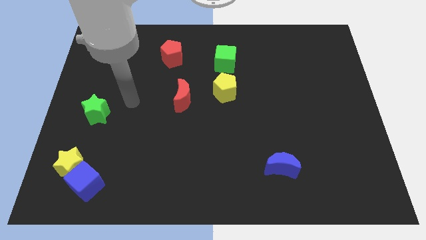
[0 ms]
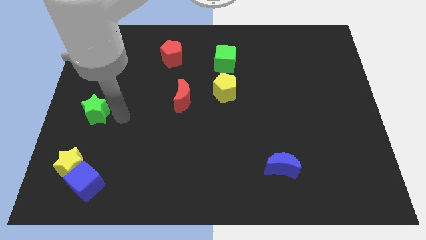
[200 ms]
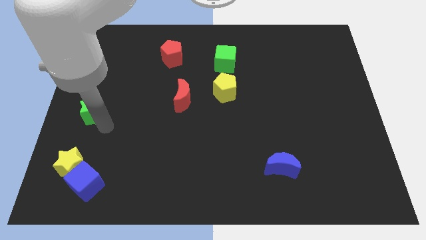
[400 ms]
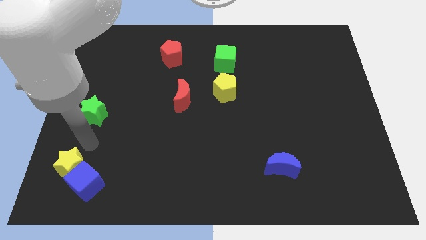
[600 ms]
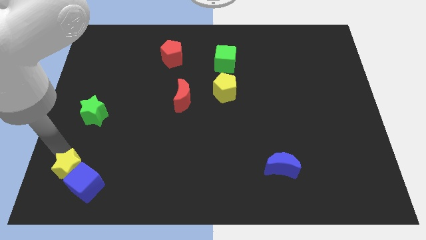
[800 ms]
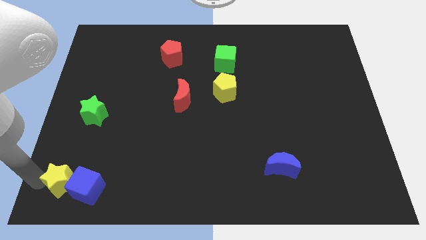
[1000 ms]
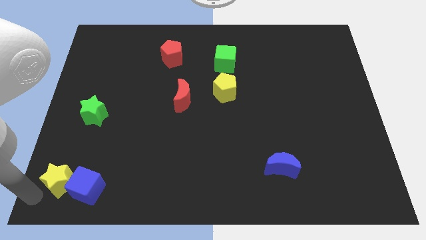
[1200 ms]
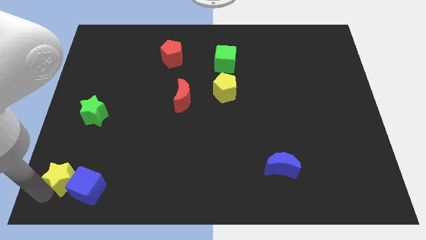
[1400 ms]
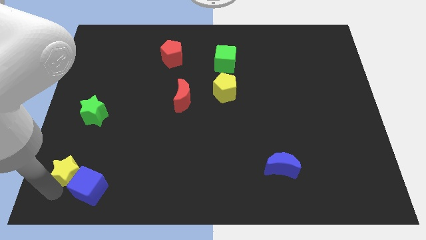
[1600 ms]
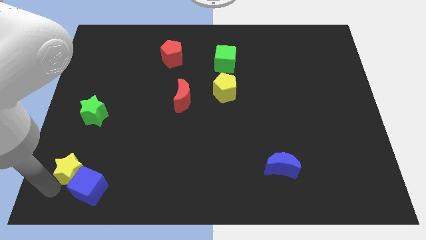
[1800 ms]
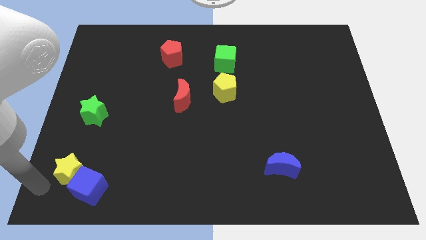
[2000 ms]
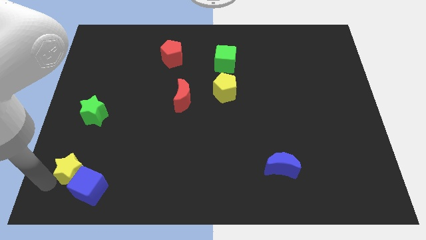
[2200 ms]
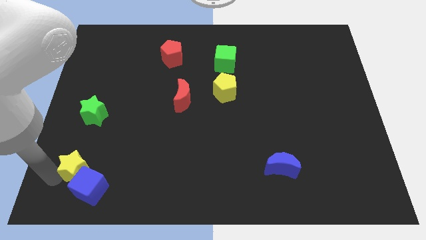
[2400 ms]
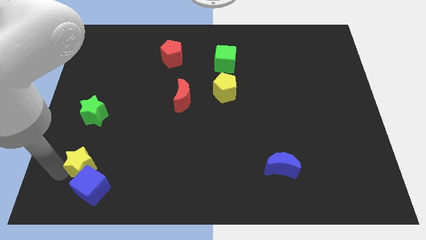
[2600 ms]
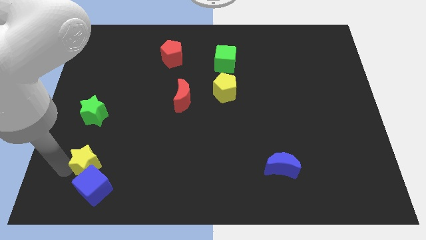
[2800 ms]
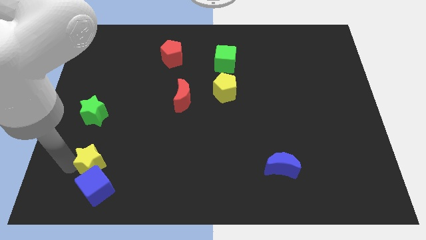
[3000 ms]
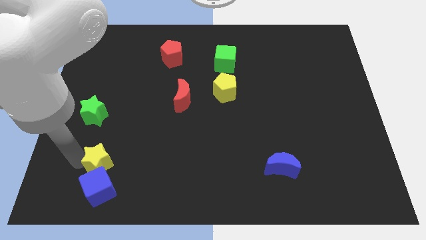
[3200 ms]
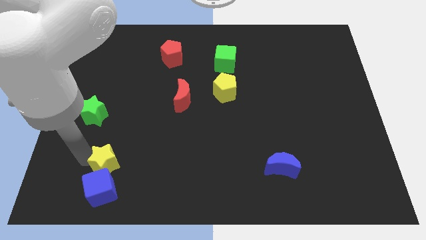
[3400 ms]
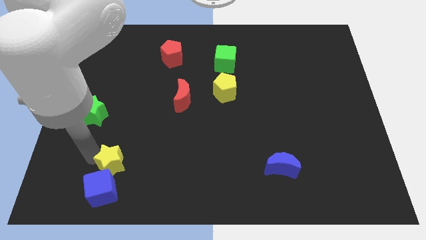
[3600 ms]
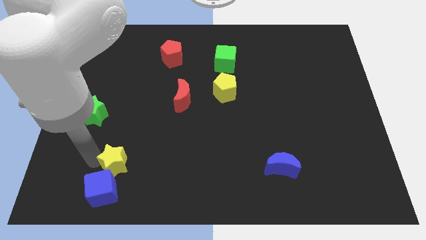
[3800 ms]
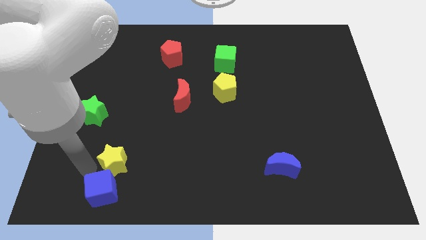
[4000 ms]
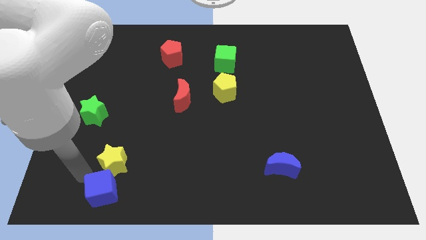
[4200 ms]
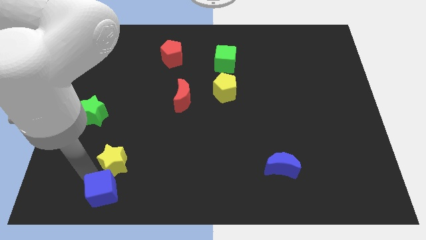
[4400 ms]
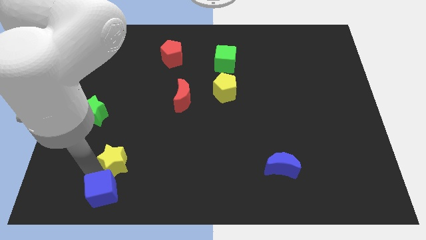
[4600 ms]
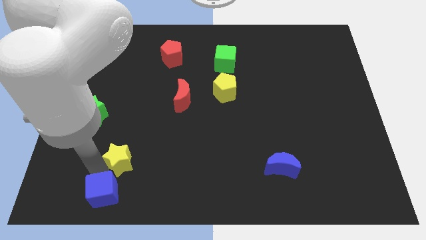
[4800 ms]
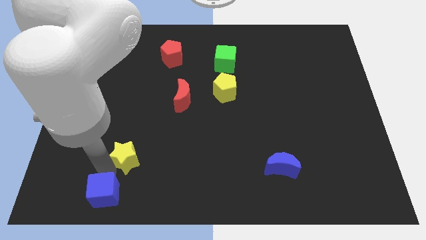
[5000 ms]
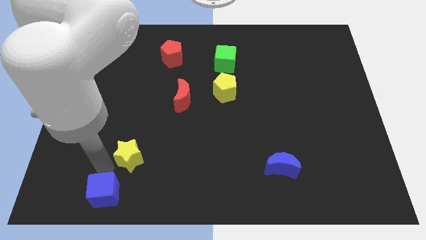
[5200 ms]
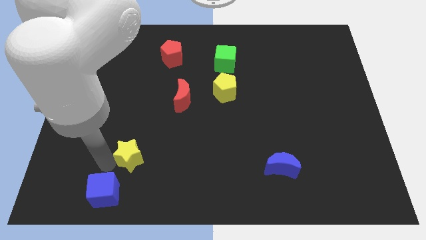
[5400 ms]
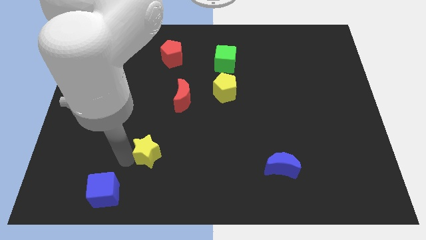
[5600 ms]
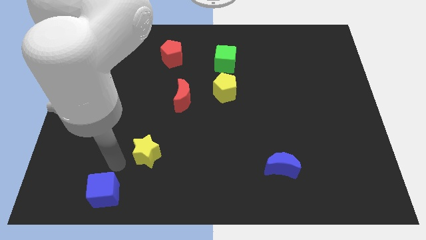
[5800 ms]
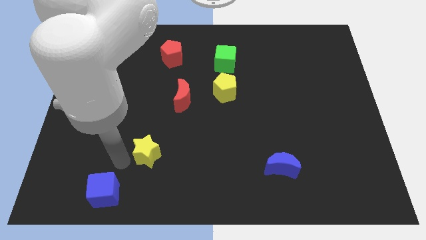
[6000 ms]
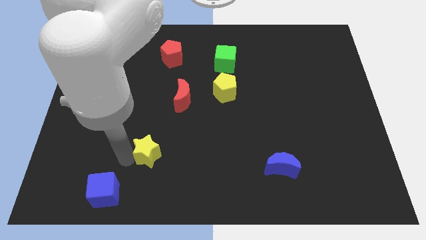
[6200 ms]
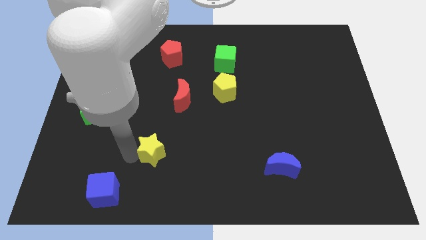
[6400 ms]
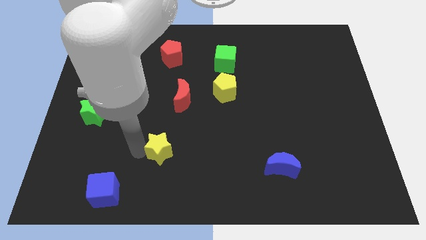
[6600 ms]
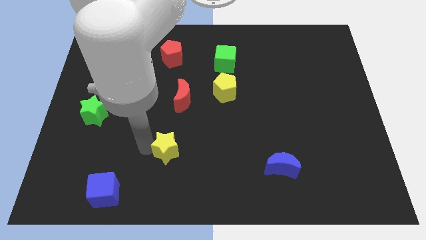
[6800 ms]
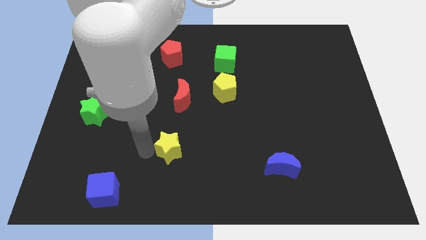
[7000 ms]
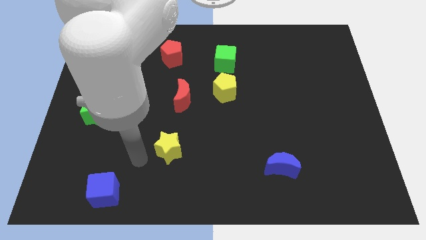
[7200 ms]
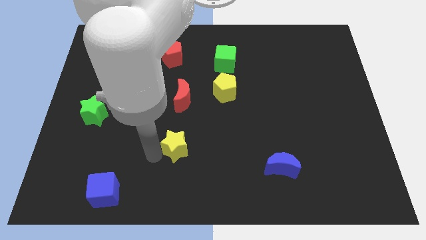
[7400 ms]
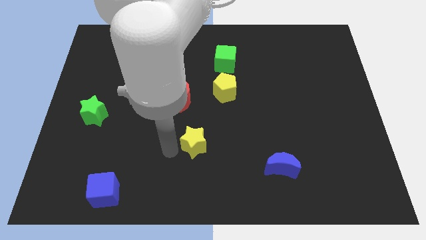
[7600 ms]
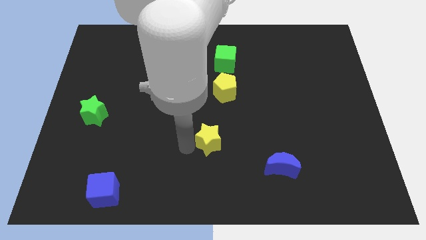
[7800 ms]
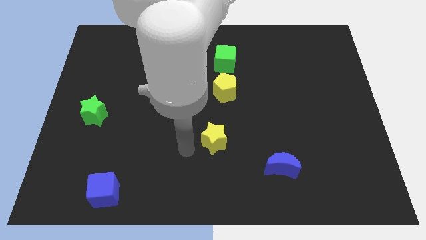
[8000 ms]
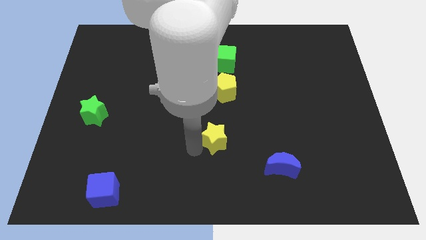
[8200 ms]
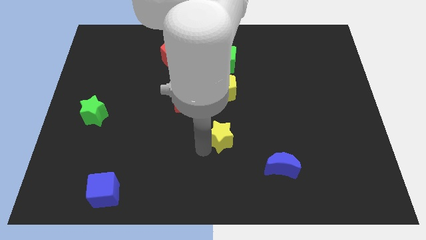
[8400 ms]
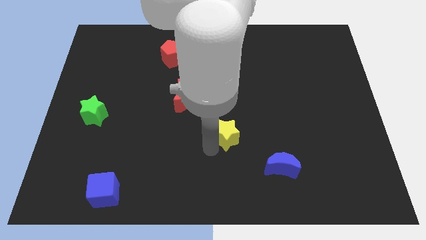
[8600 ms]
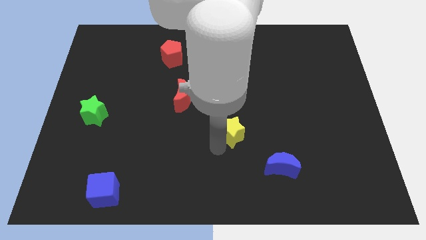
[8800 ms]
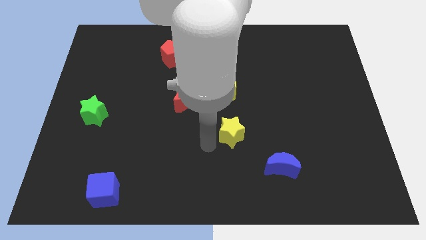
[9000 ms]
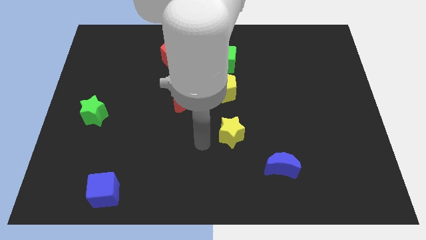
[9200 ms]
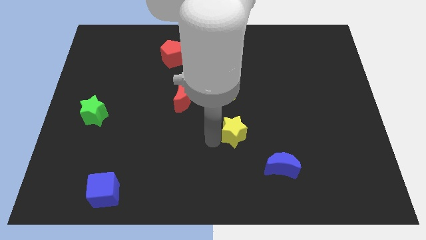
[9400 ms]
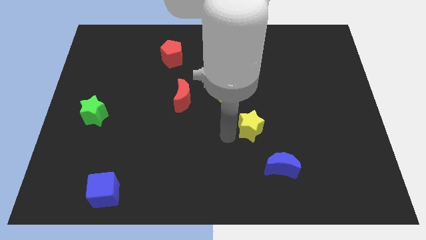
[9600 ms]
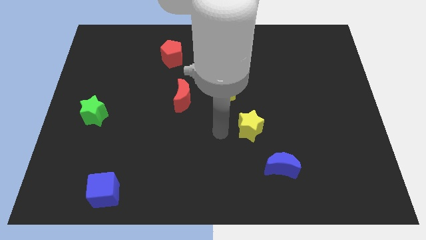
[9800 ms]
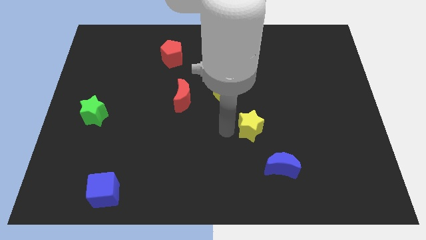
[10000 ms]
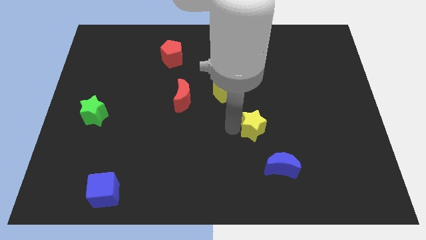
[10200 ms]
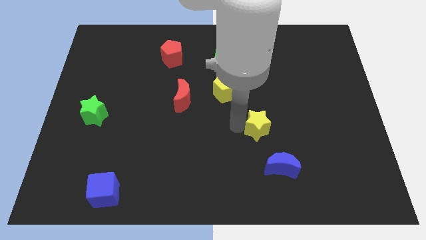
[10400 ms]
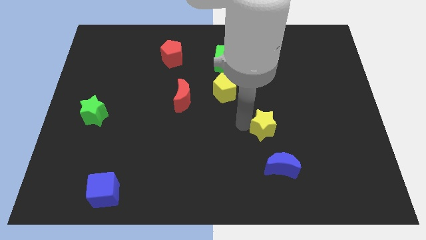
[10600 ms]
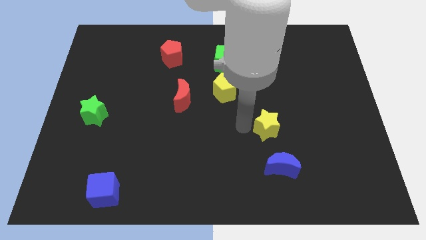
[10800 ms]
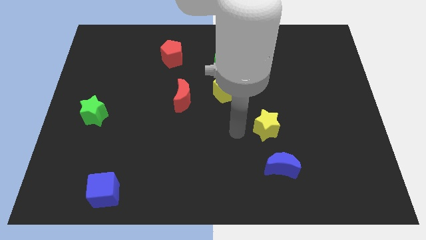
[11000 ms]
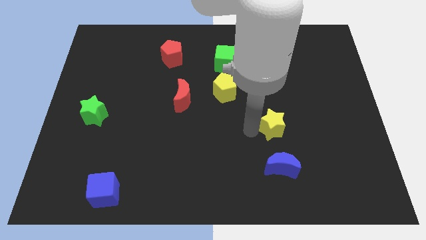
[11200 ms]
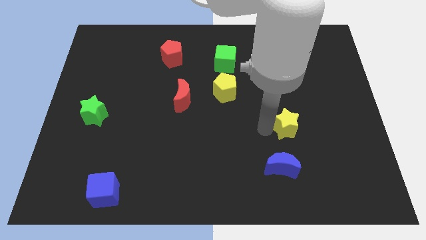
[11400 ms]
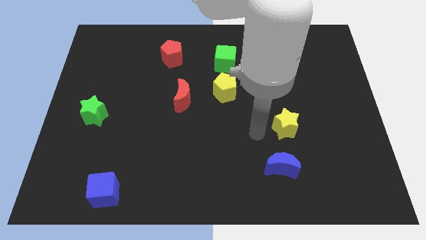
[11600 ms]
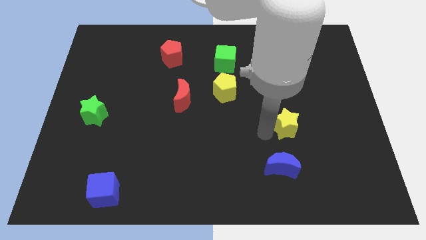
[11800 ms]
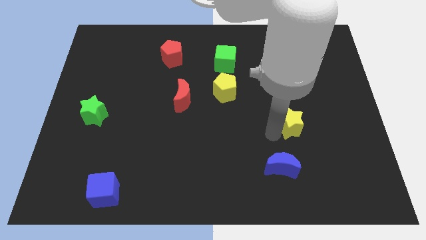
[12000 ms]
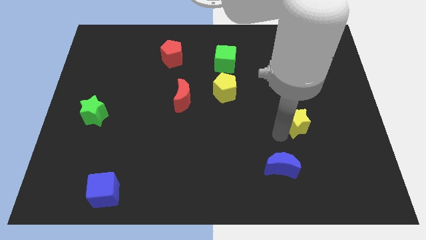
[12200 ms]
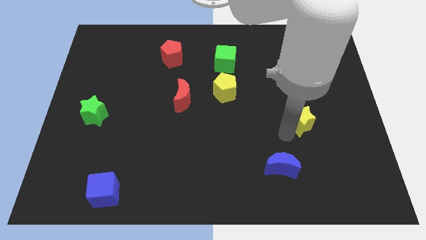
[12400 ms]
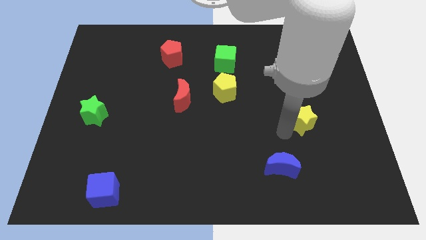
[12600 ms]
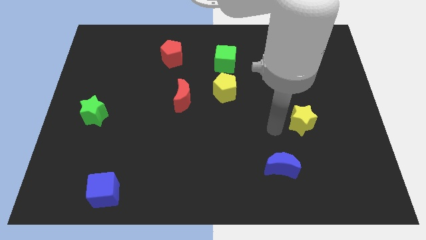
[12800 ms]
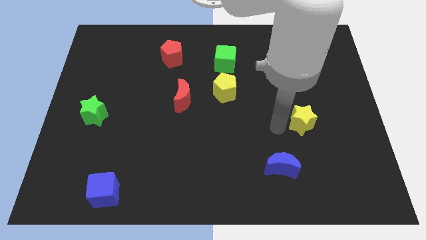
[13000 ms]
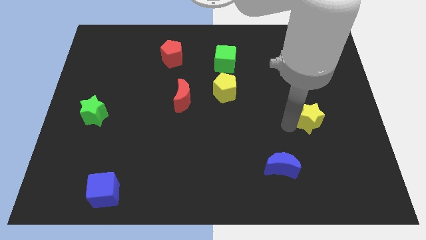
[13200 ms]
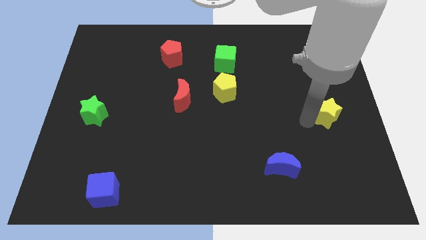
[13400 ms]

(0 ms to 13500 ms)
move the yellow star to the right side

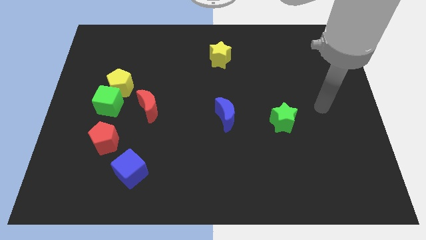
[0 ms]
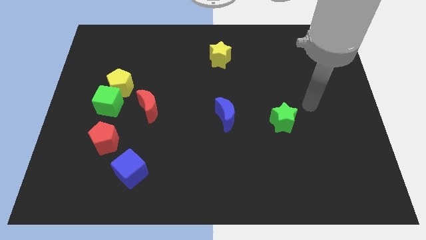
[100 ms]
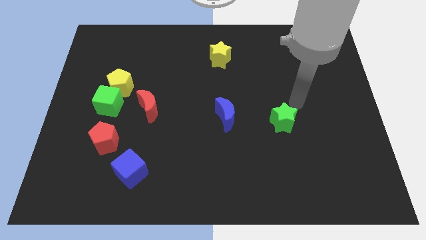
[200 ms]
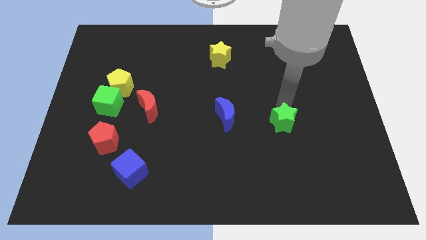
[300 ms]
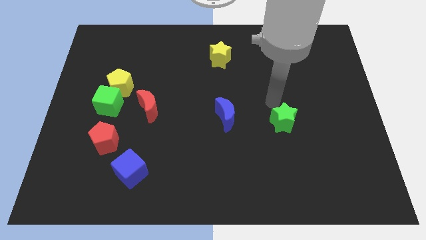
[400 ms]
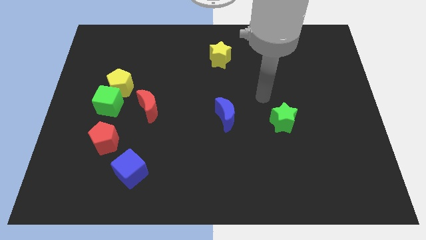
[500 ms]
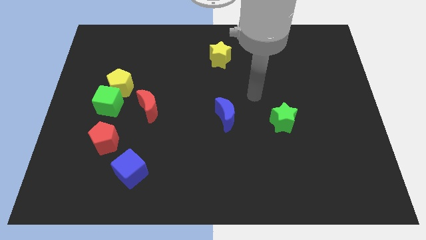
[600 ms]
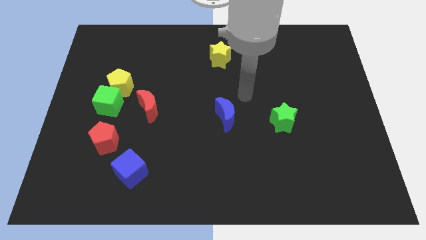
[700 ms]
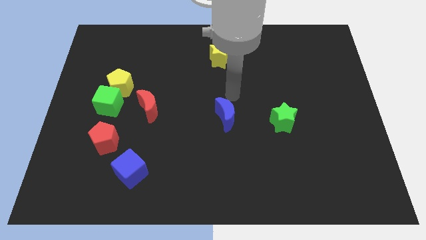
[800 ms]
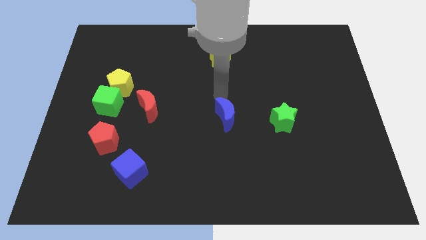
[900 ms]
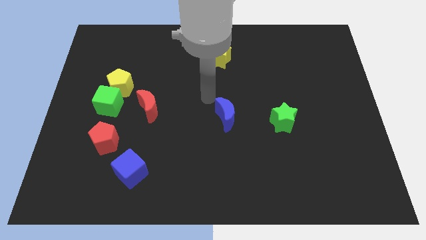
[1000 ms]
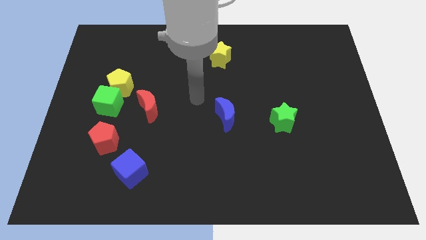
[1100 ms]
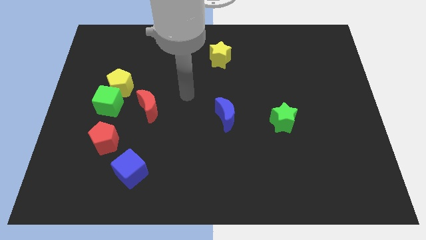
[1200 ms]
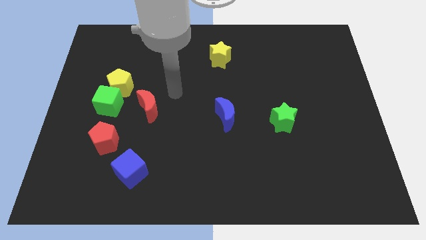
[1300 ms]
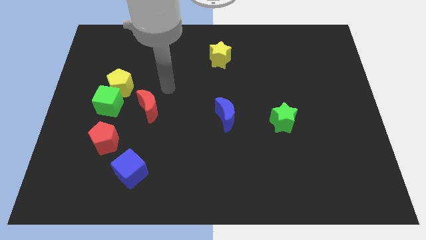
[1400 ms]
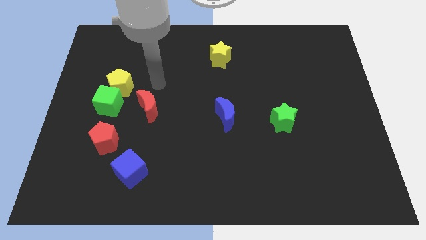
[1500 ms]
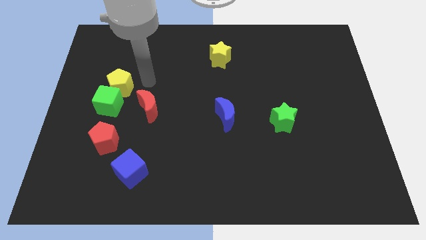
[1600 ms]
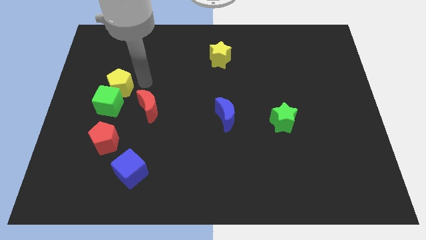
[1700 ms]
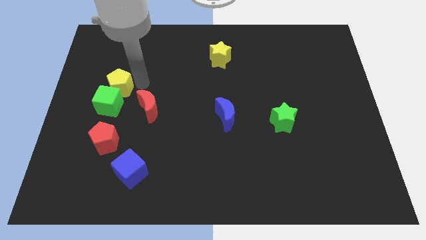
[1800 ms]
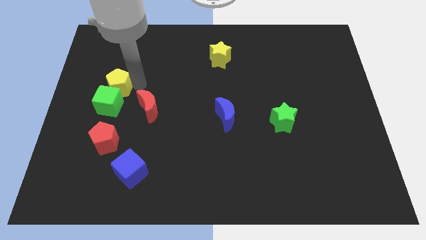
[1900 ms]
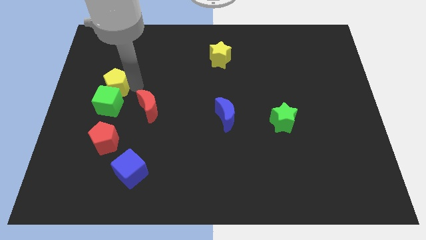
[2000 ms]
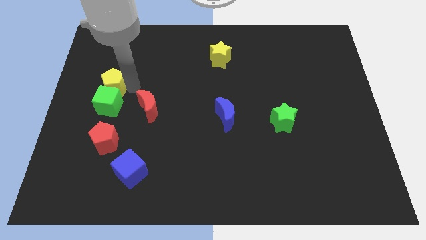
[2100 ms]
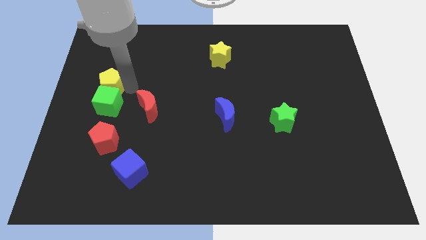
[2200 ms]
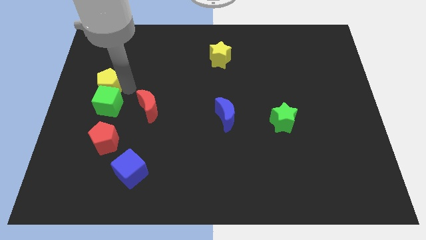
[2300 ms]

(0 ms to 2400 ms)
slide the yellow pentagon to the left side
